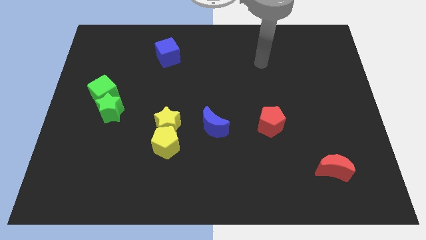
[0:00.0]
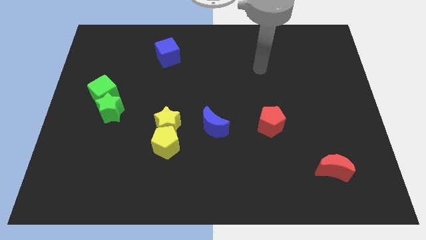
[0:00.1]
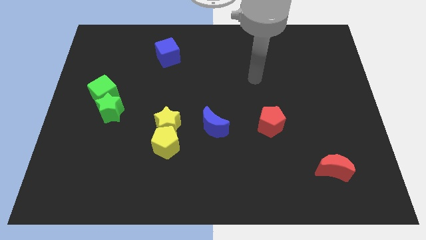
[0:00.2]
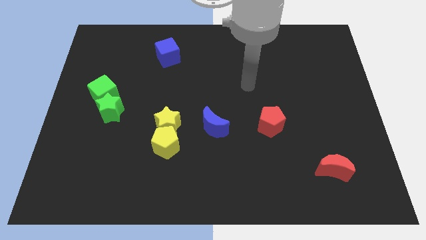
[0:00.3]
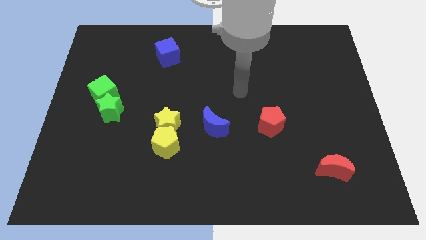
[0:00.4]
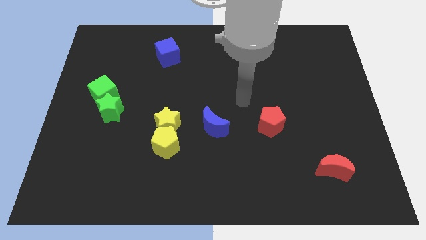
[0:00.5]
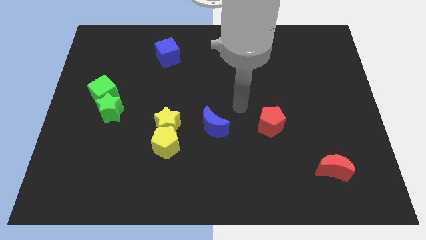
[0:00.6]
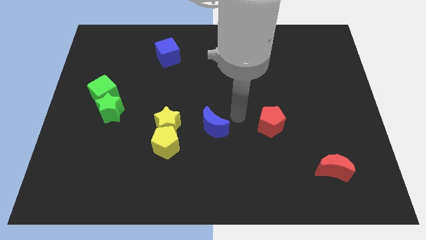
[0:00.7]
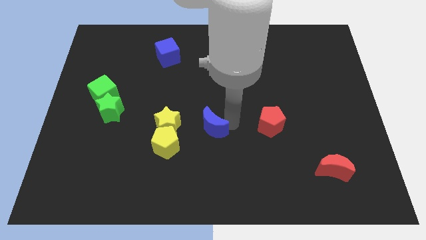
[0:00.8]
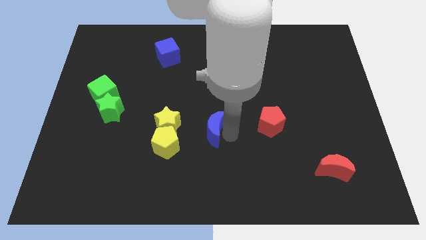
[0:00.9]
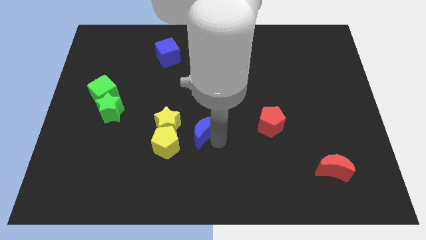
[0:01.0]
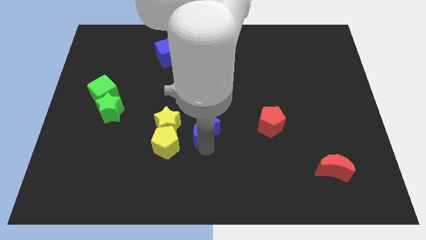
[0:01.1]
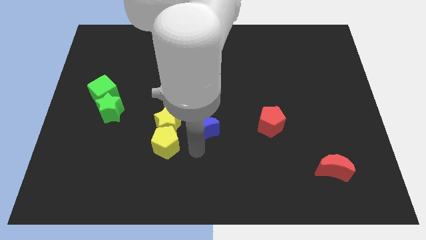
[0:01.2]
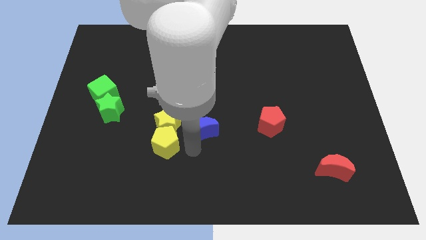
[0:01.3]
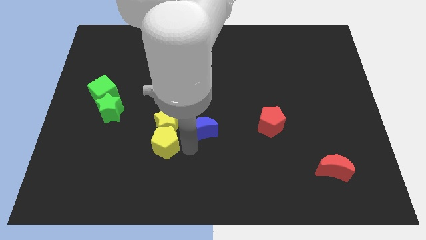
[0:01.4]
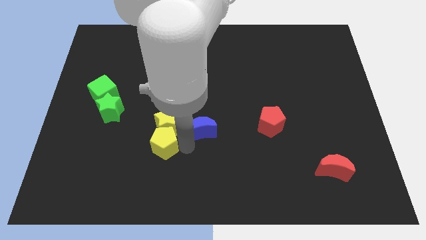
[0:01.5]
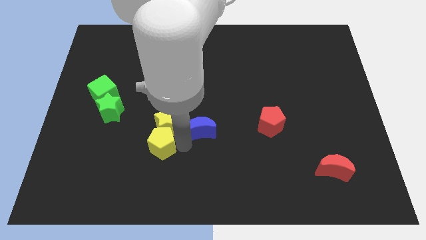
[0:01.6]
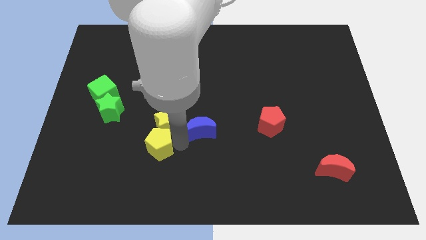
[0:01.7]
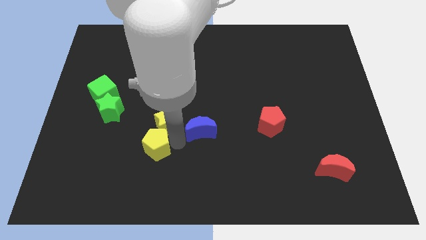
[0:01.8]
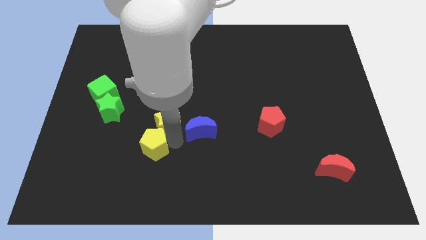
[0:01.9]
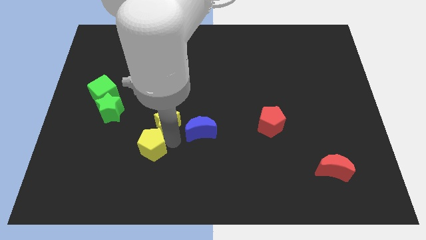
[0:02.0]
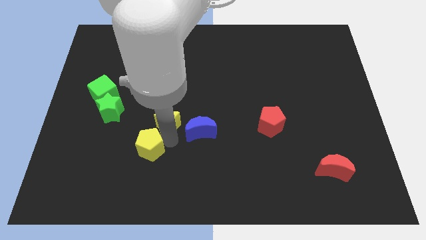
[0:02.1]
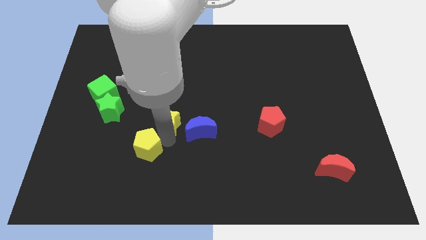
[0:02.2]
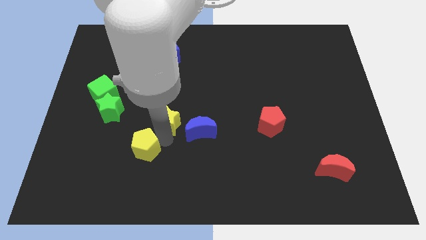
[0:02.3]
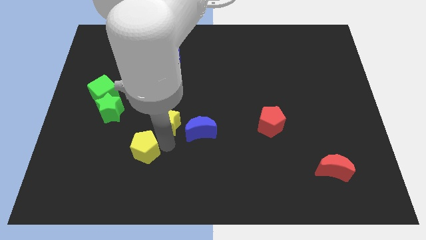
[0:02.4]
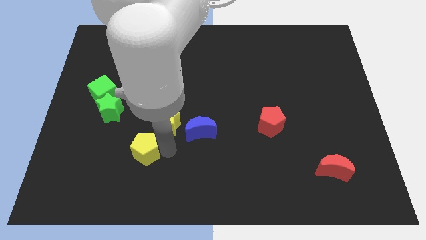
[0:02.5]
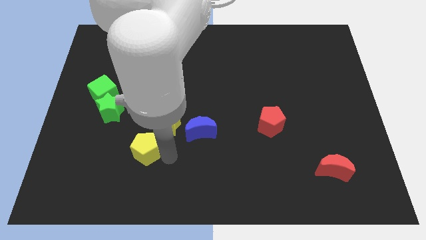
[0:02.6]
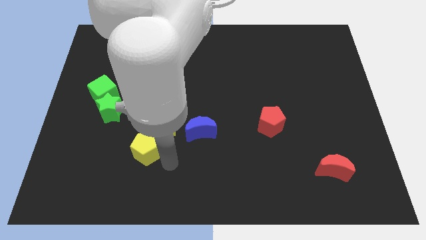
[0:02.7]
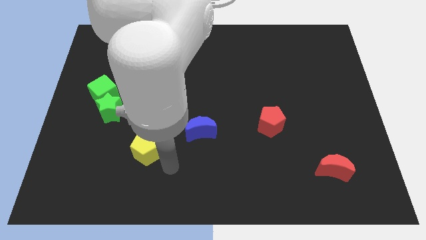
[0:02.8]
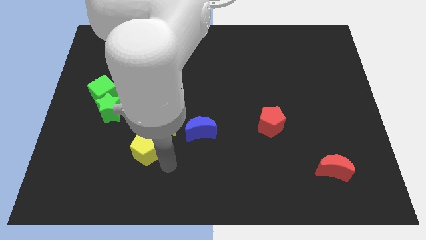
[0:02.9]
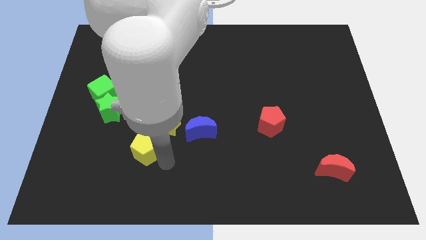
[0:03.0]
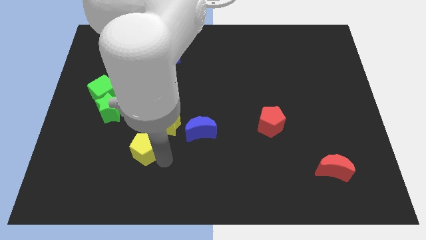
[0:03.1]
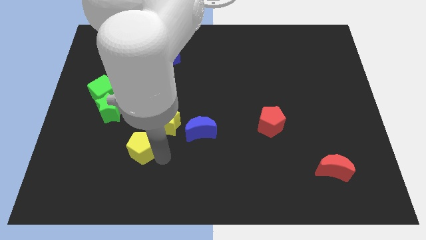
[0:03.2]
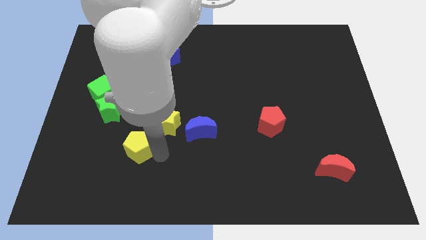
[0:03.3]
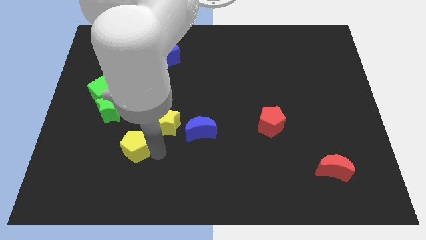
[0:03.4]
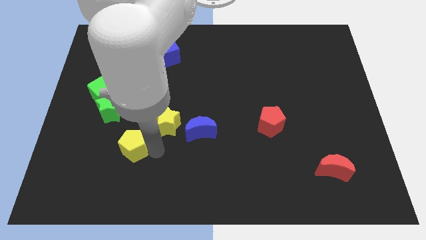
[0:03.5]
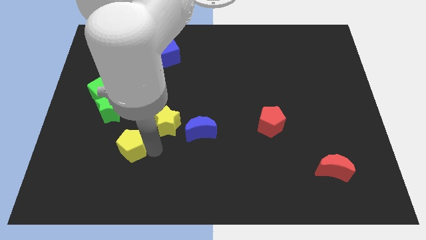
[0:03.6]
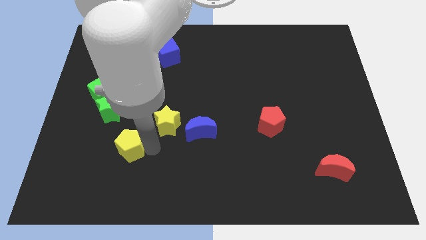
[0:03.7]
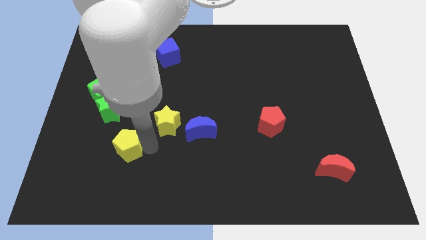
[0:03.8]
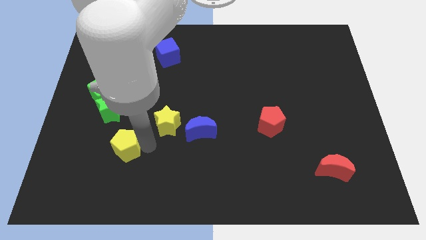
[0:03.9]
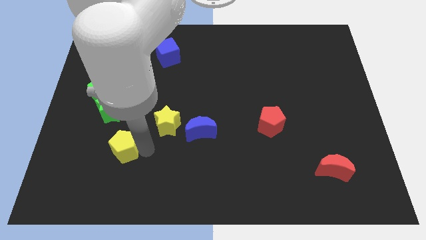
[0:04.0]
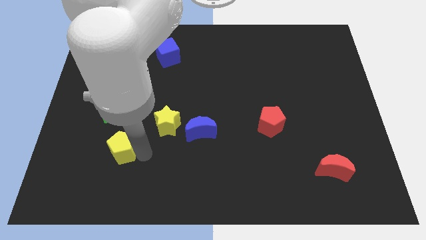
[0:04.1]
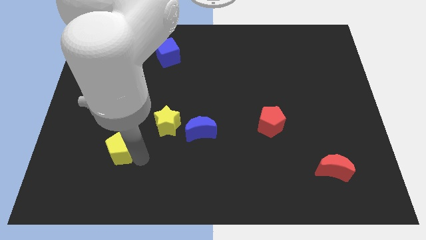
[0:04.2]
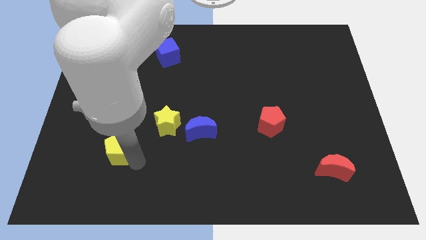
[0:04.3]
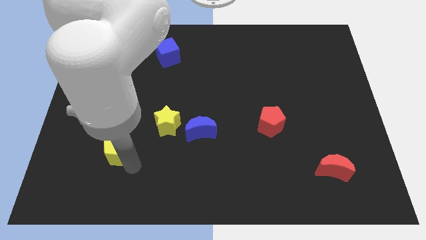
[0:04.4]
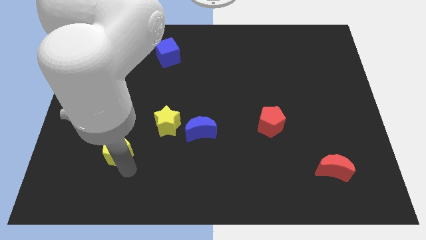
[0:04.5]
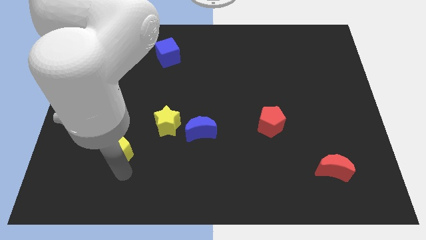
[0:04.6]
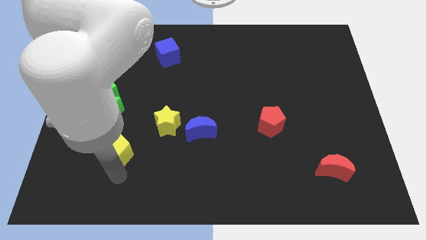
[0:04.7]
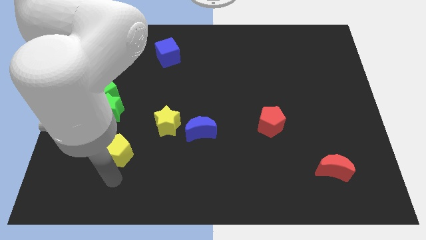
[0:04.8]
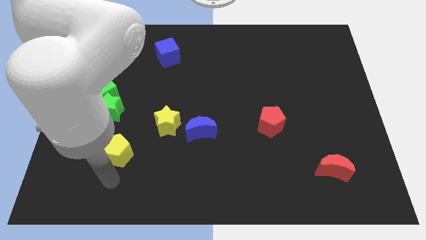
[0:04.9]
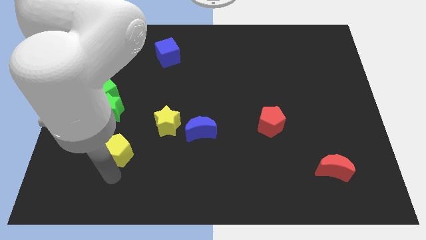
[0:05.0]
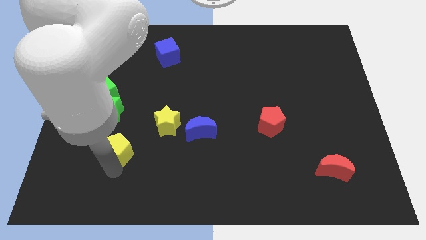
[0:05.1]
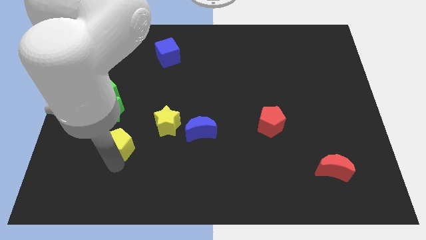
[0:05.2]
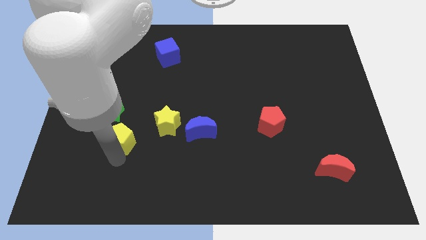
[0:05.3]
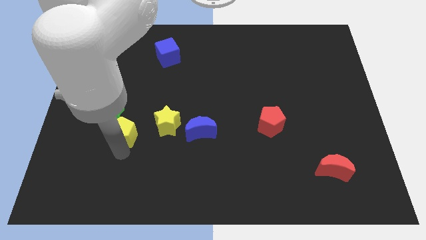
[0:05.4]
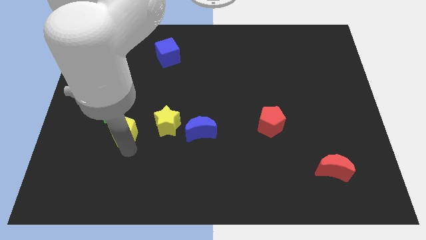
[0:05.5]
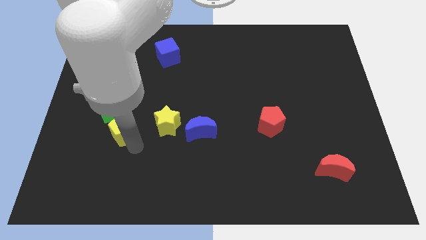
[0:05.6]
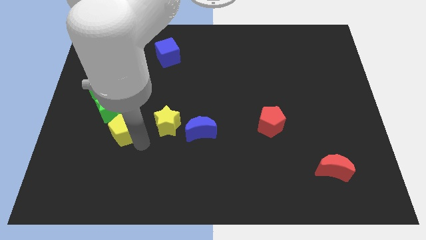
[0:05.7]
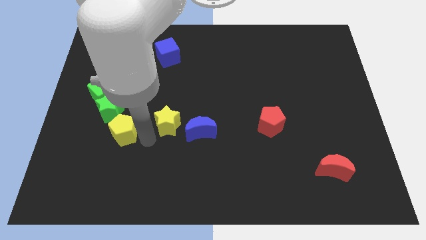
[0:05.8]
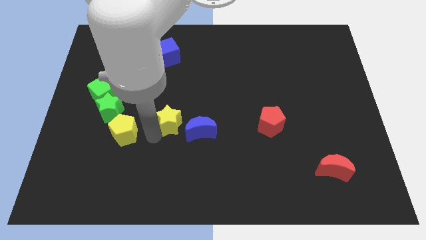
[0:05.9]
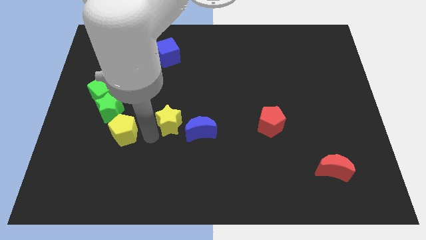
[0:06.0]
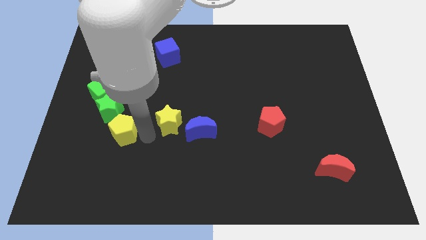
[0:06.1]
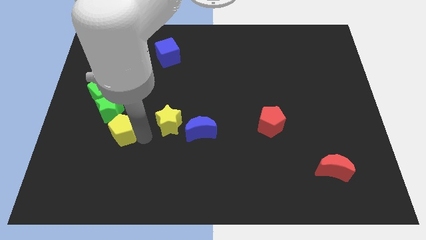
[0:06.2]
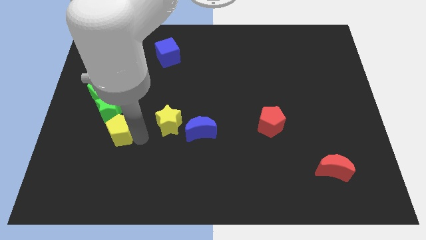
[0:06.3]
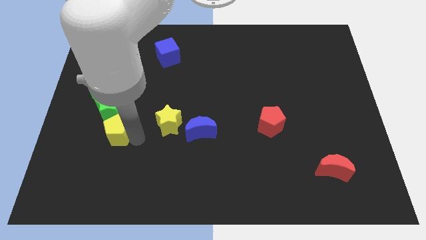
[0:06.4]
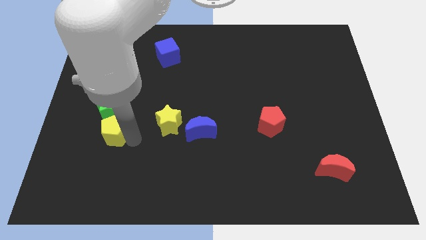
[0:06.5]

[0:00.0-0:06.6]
slide the yellow pentagon below the green cube
